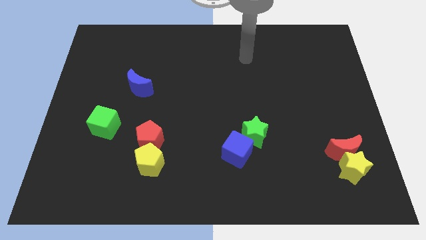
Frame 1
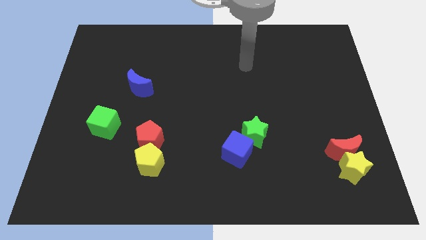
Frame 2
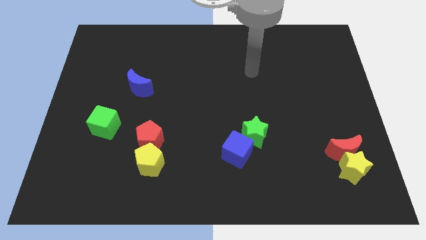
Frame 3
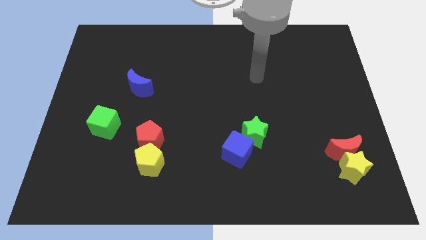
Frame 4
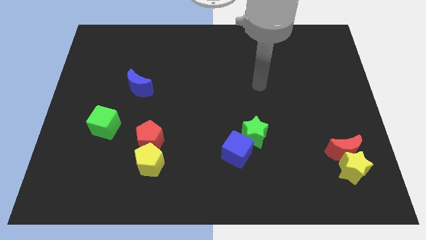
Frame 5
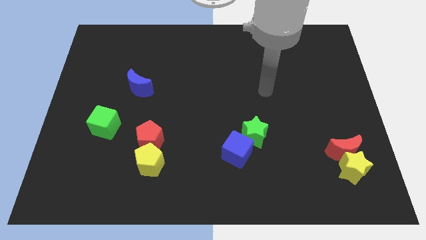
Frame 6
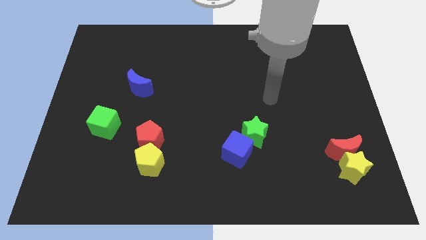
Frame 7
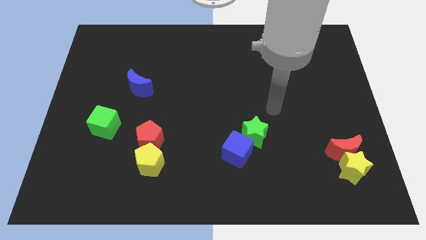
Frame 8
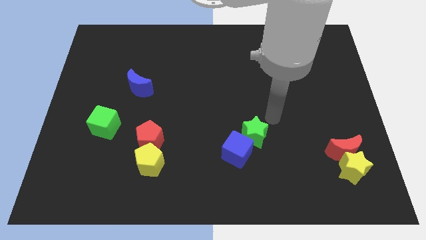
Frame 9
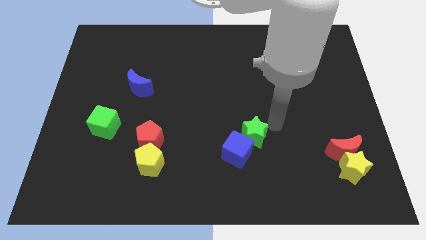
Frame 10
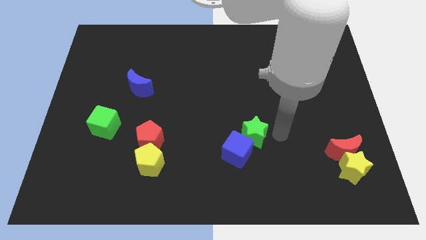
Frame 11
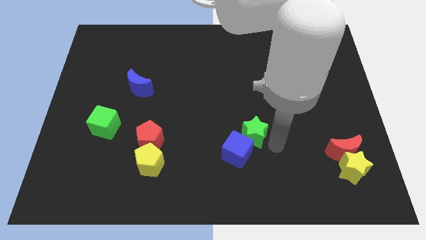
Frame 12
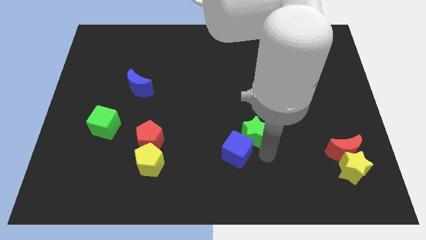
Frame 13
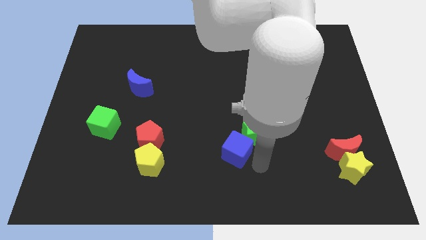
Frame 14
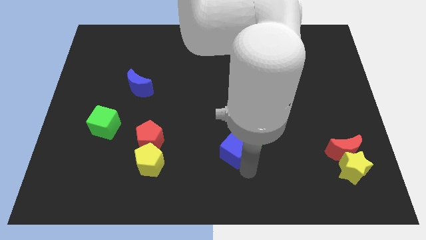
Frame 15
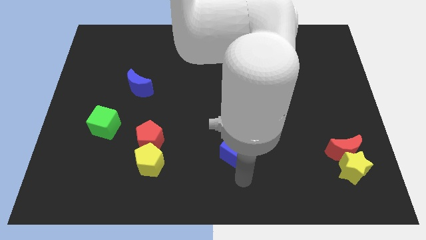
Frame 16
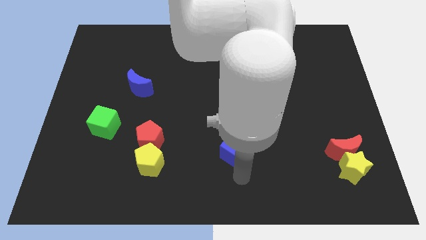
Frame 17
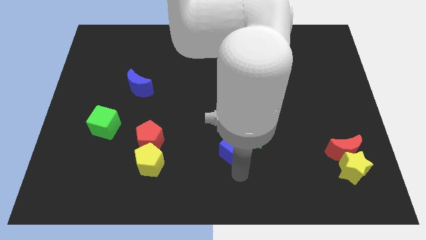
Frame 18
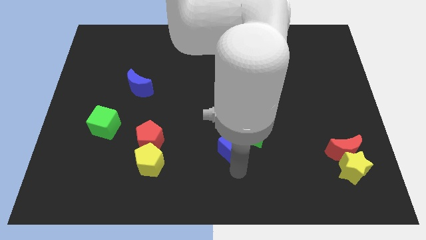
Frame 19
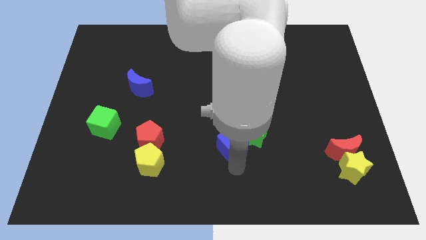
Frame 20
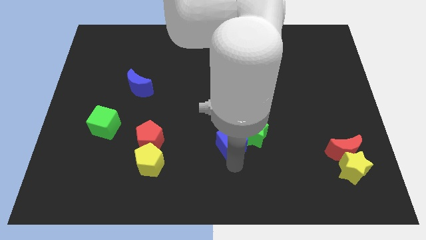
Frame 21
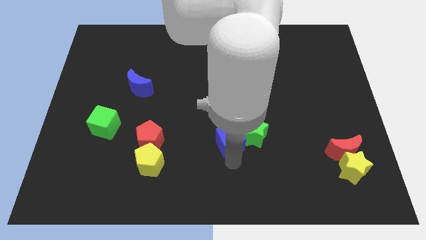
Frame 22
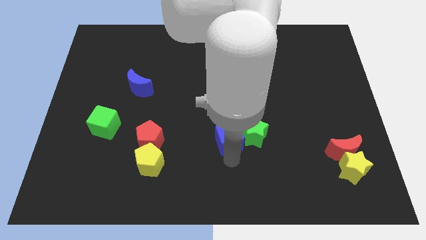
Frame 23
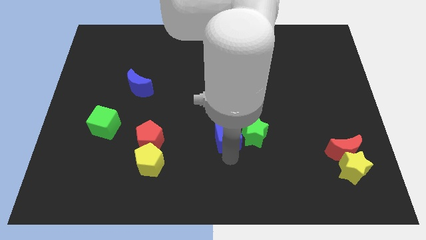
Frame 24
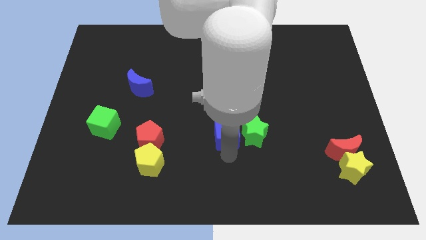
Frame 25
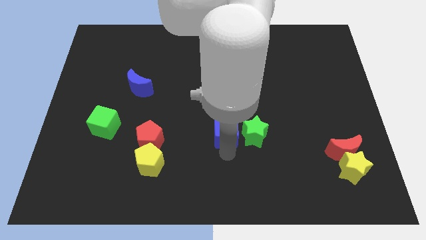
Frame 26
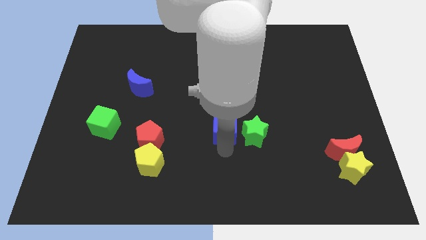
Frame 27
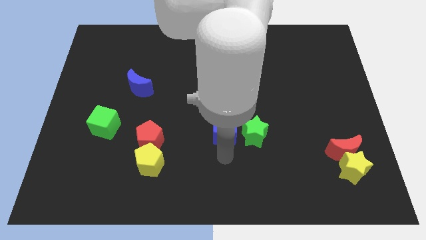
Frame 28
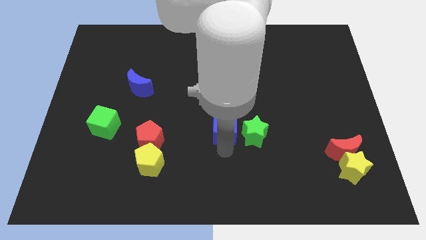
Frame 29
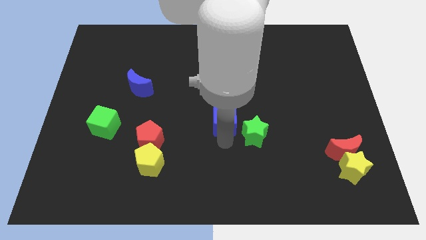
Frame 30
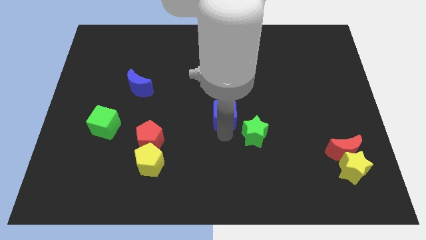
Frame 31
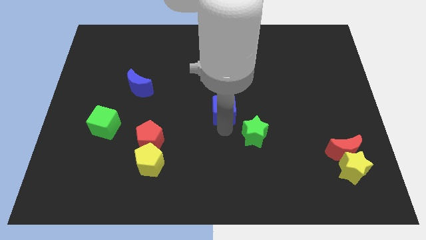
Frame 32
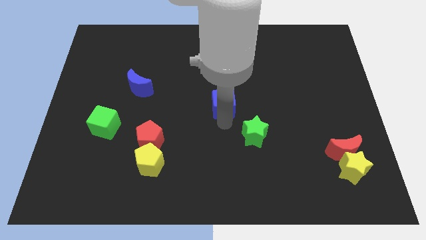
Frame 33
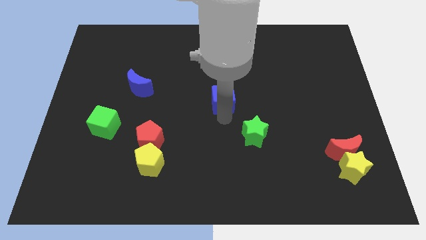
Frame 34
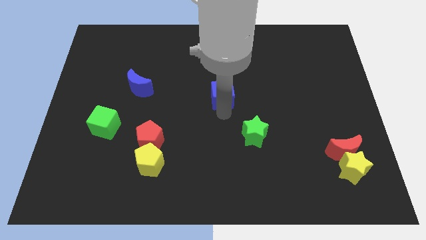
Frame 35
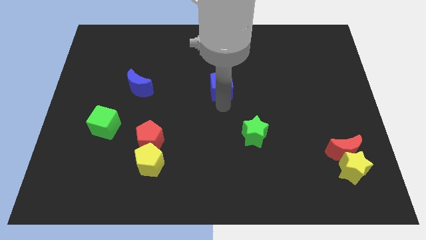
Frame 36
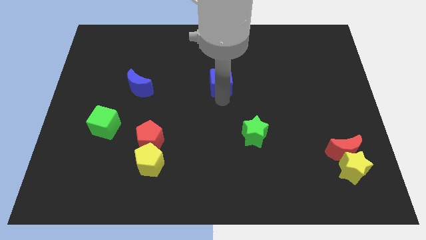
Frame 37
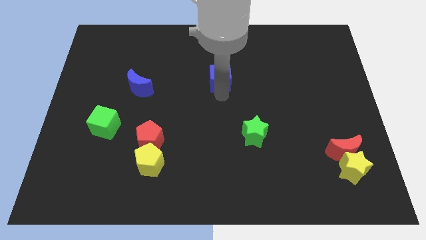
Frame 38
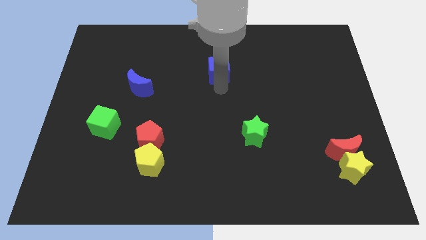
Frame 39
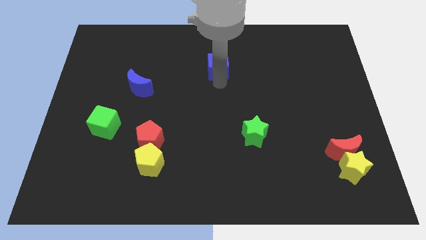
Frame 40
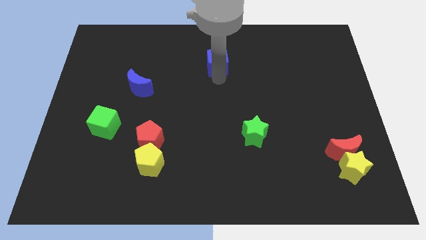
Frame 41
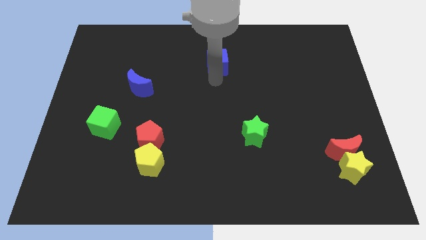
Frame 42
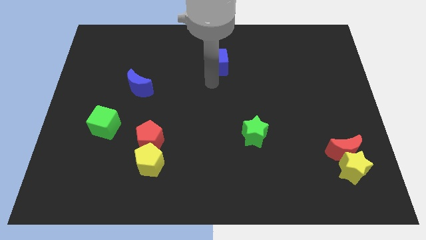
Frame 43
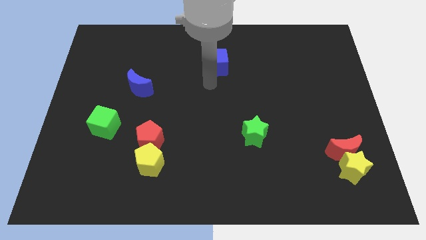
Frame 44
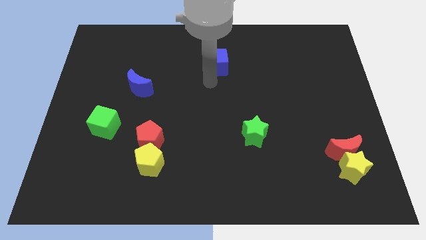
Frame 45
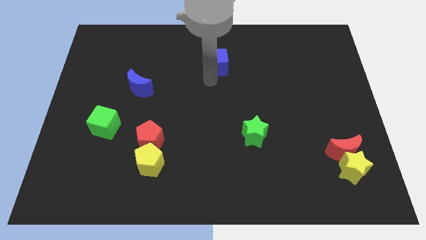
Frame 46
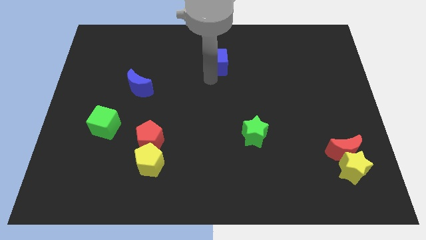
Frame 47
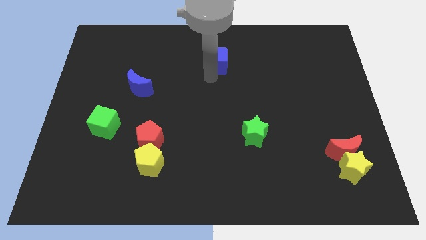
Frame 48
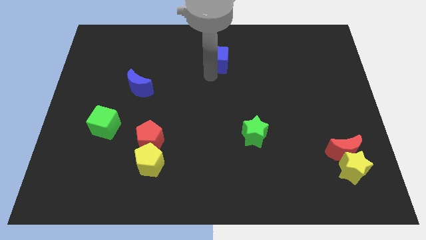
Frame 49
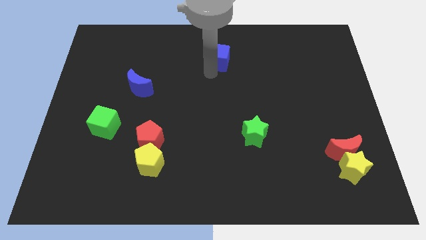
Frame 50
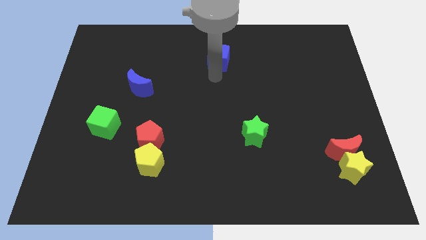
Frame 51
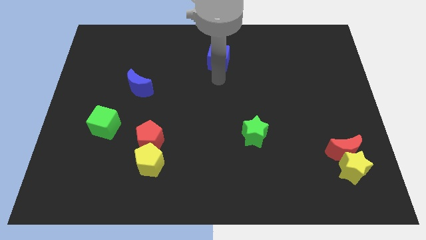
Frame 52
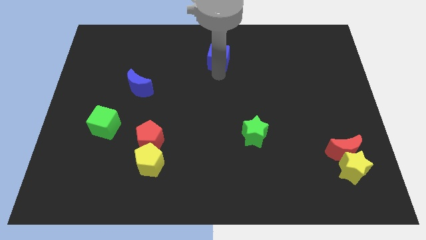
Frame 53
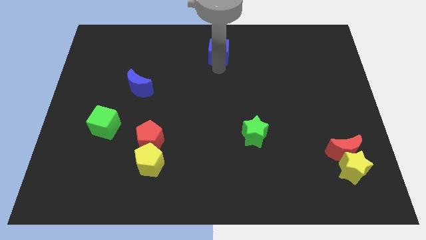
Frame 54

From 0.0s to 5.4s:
move the blue cube to the top side

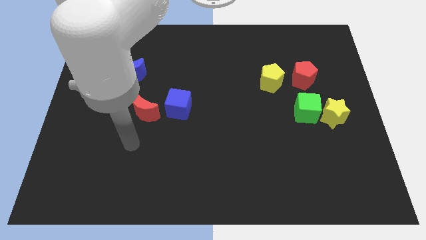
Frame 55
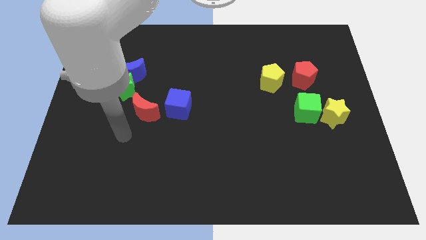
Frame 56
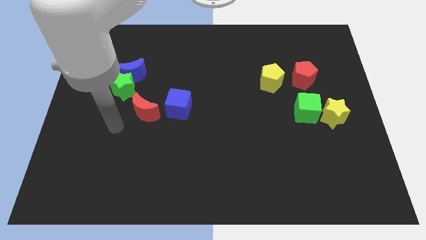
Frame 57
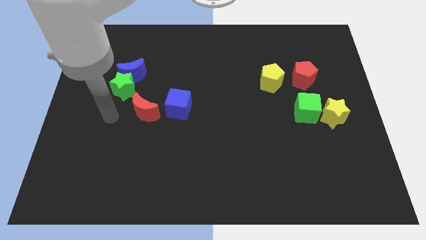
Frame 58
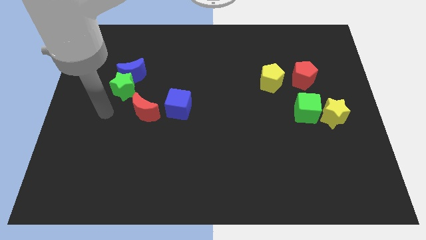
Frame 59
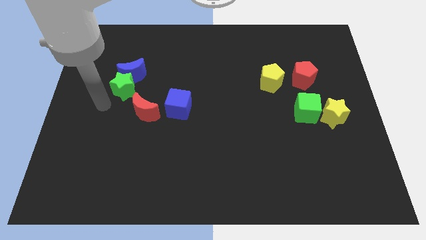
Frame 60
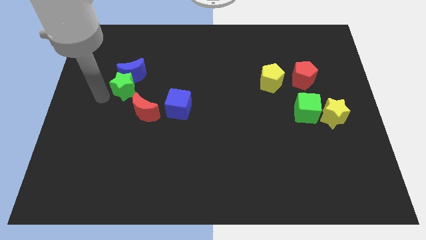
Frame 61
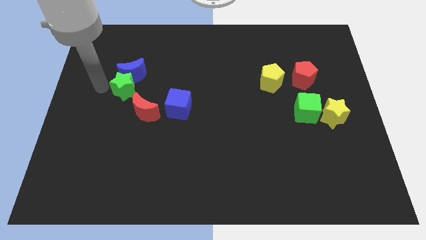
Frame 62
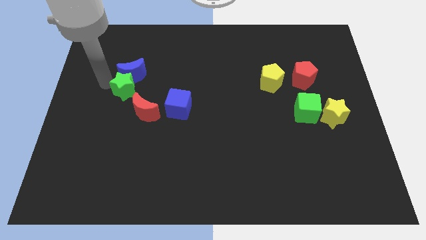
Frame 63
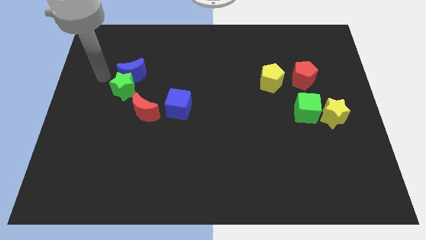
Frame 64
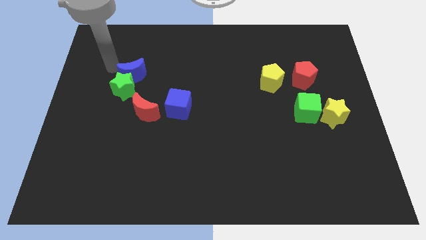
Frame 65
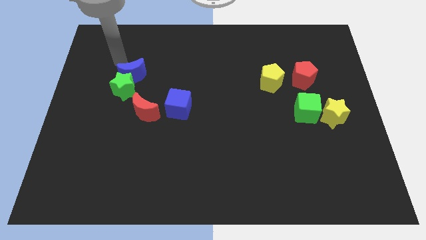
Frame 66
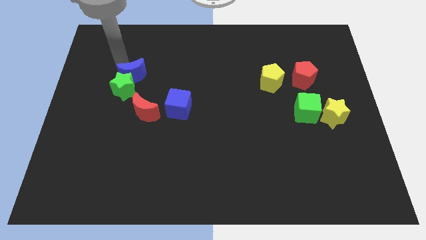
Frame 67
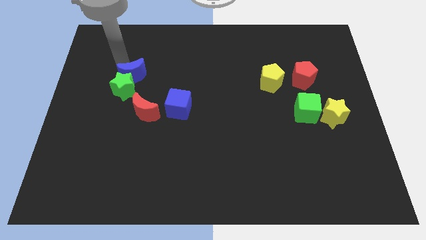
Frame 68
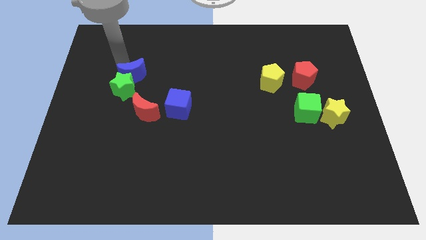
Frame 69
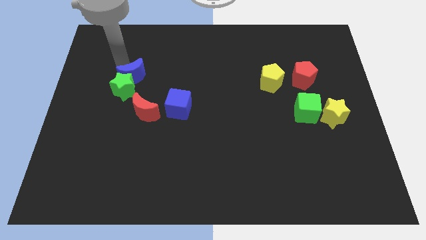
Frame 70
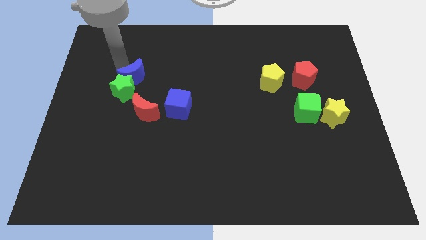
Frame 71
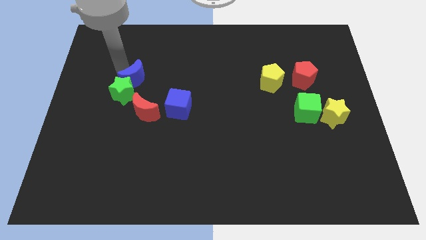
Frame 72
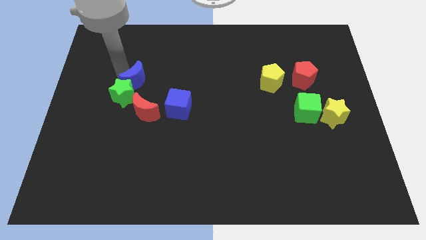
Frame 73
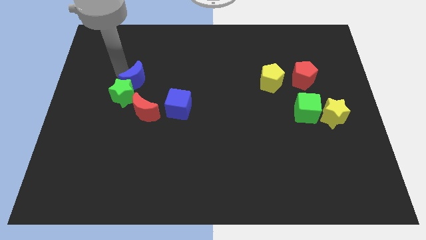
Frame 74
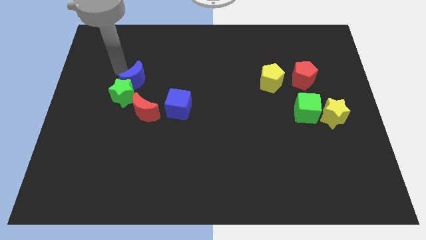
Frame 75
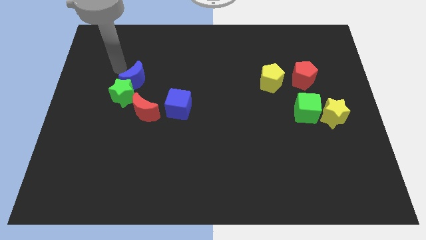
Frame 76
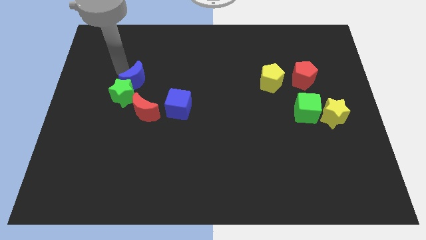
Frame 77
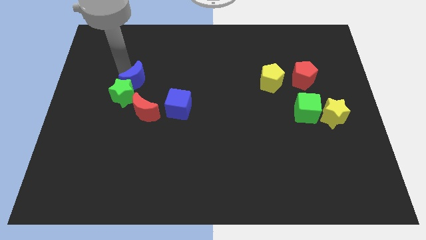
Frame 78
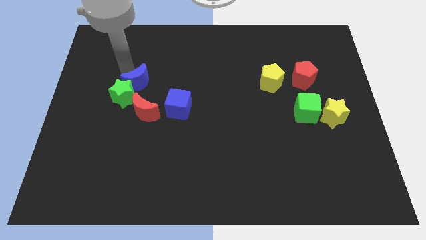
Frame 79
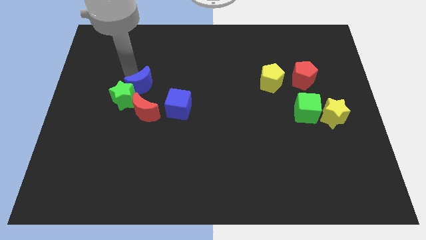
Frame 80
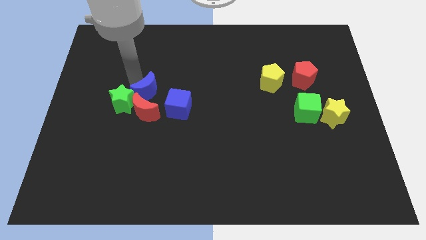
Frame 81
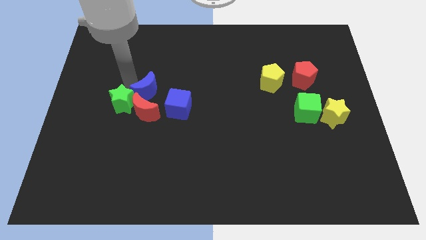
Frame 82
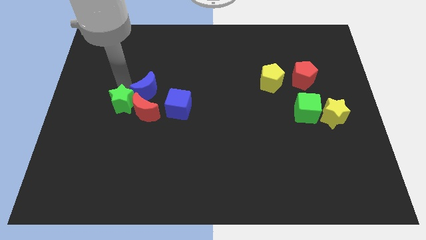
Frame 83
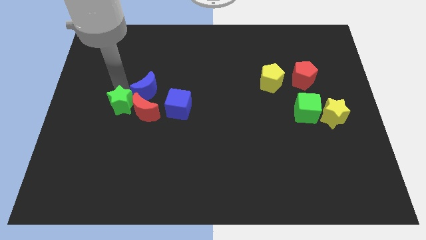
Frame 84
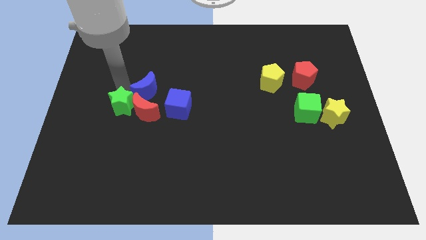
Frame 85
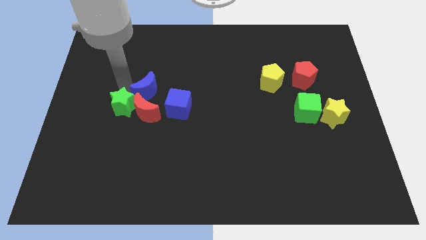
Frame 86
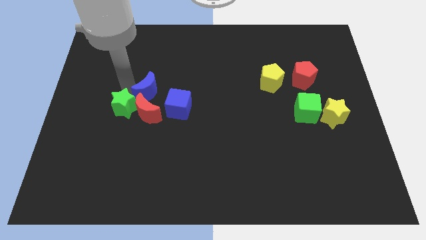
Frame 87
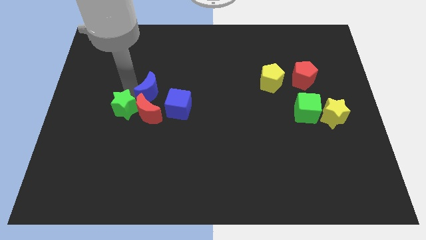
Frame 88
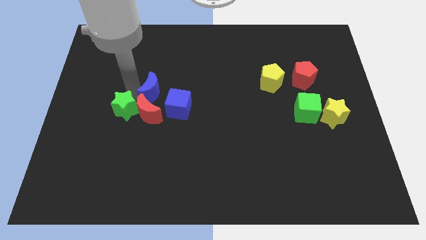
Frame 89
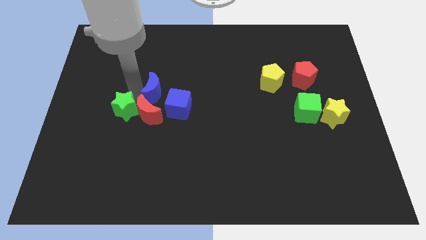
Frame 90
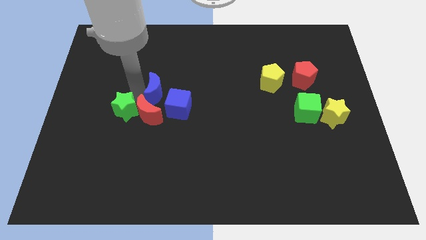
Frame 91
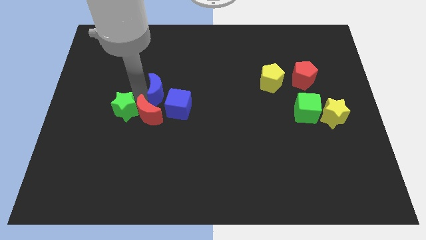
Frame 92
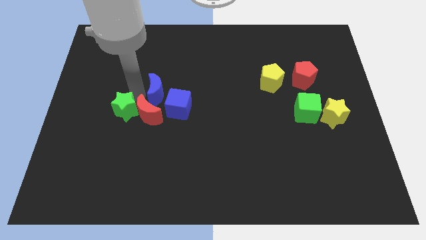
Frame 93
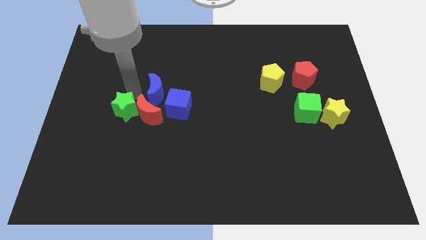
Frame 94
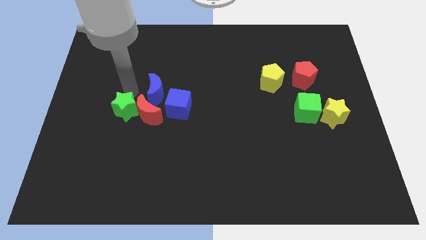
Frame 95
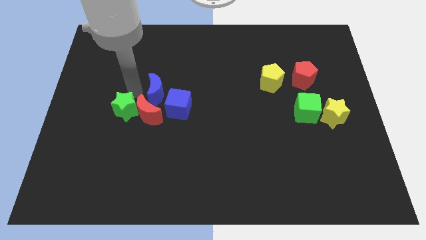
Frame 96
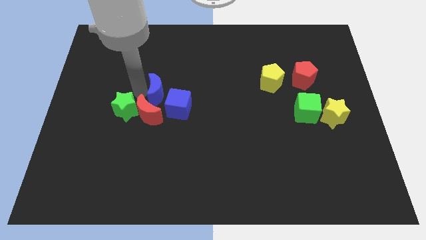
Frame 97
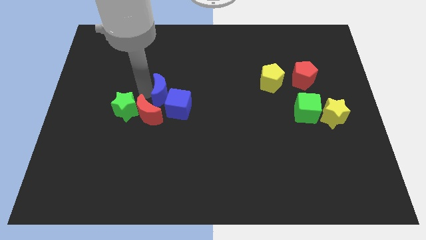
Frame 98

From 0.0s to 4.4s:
put the blue moon to the center of the board
